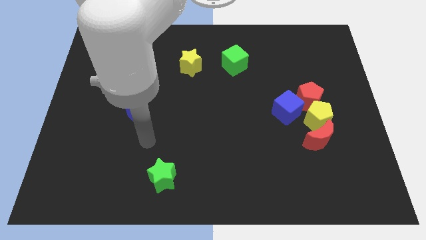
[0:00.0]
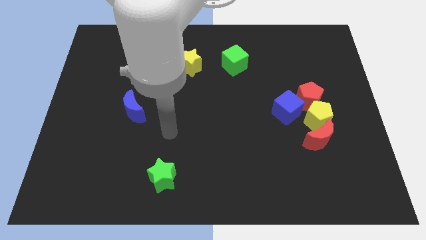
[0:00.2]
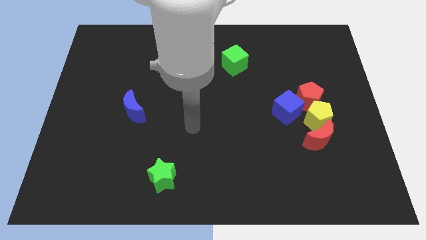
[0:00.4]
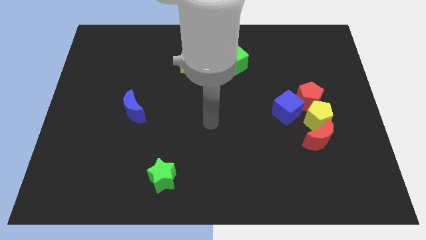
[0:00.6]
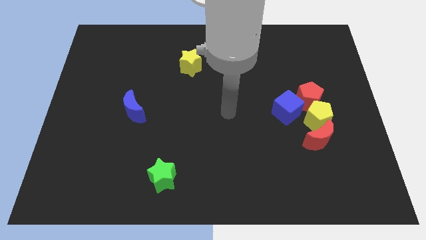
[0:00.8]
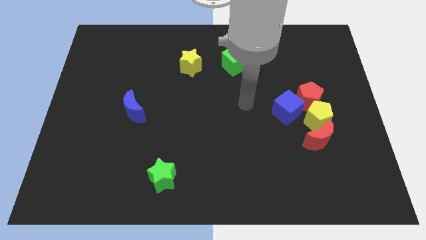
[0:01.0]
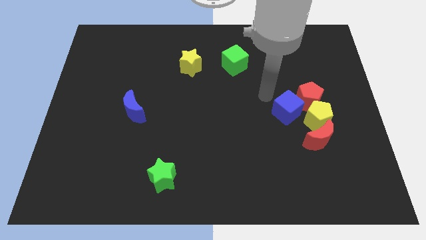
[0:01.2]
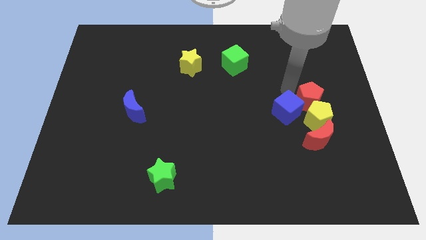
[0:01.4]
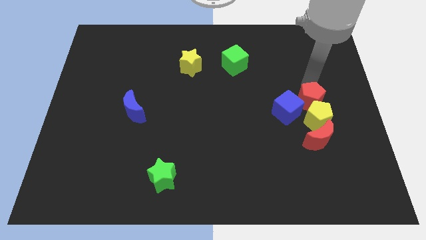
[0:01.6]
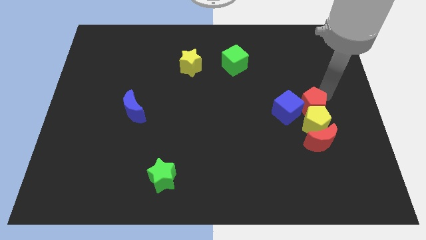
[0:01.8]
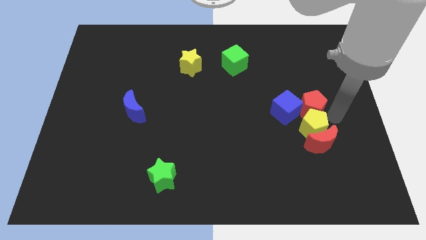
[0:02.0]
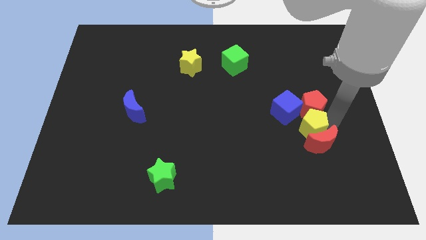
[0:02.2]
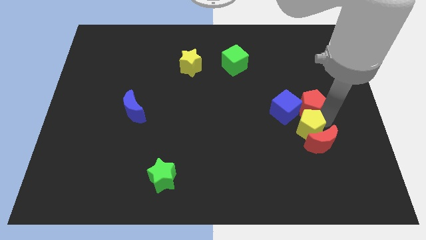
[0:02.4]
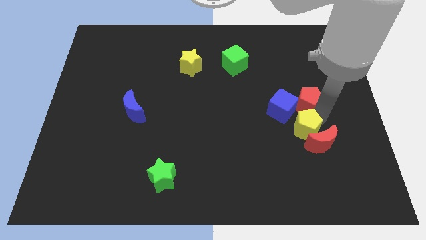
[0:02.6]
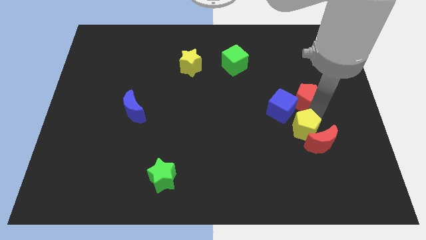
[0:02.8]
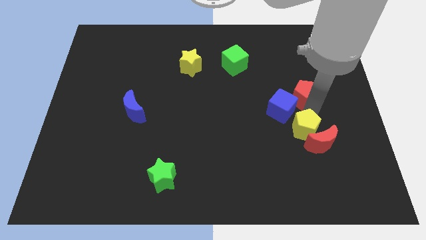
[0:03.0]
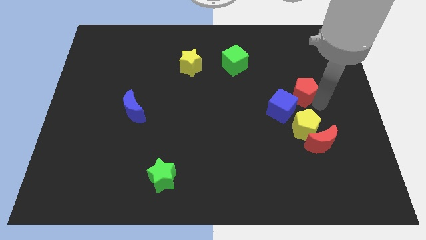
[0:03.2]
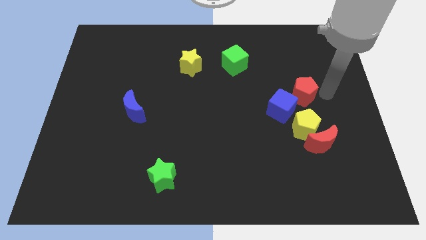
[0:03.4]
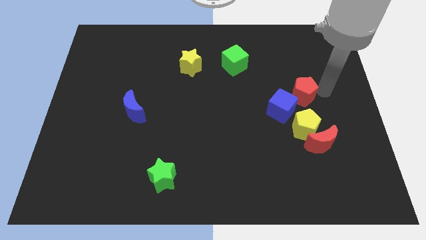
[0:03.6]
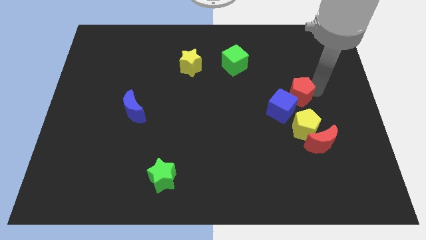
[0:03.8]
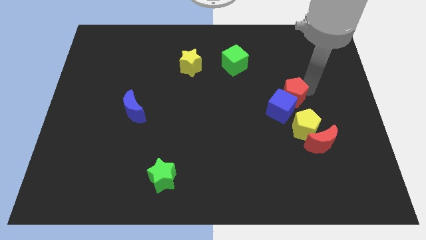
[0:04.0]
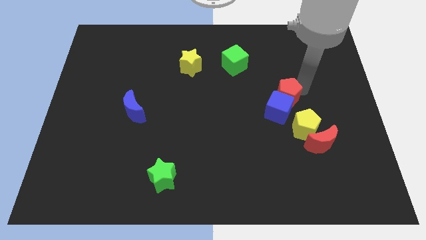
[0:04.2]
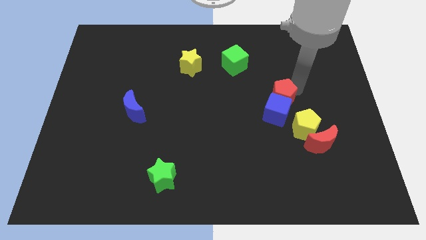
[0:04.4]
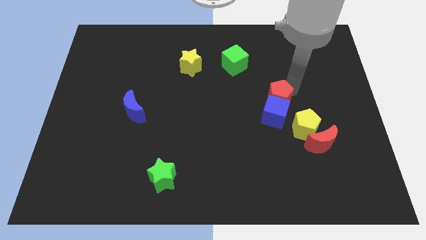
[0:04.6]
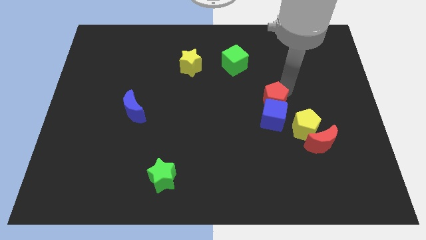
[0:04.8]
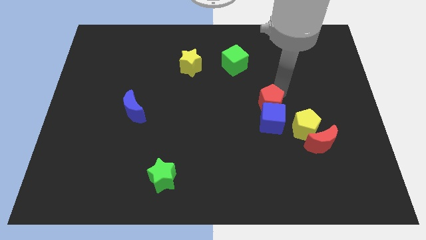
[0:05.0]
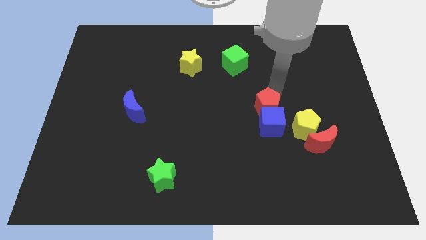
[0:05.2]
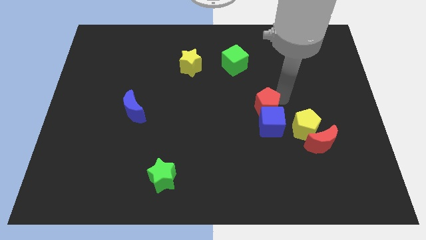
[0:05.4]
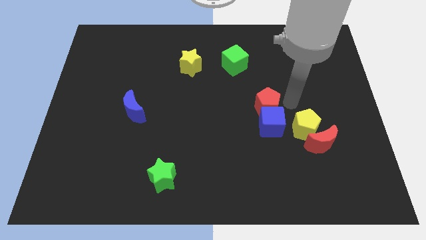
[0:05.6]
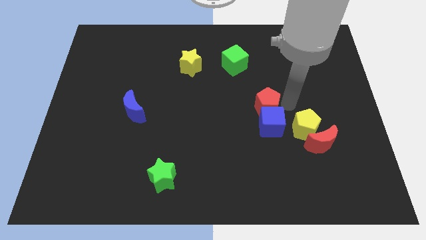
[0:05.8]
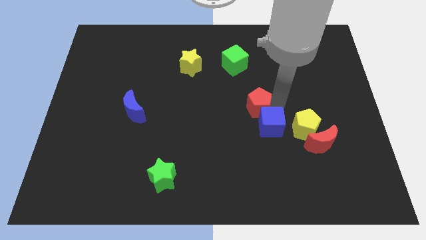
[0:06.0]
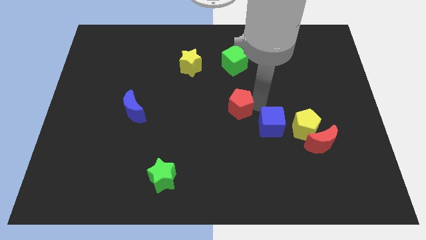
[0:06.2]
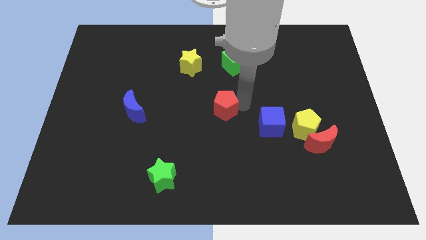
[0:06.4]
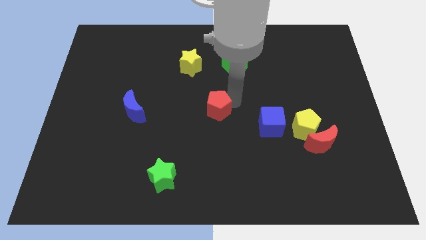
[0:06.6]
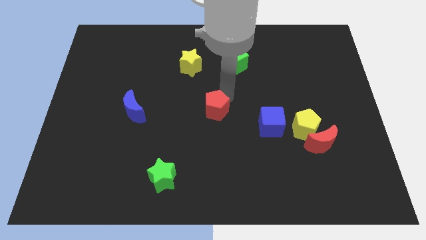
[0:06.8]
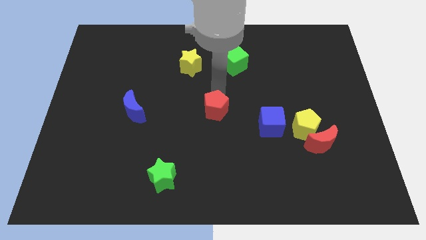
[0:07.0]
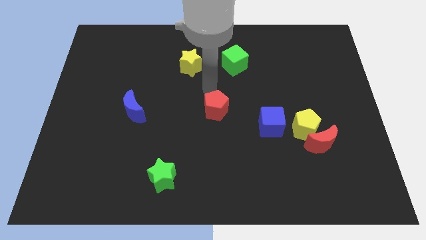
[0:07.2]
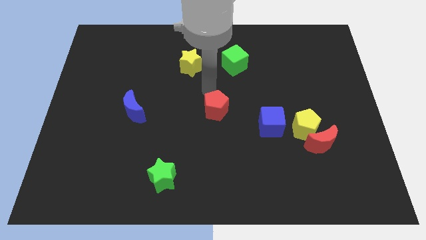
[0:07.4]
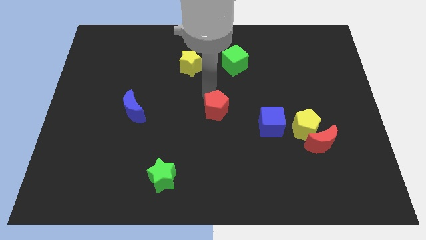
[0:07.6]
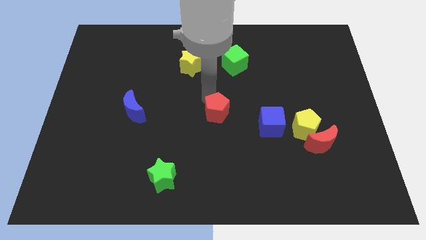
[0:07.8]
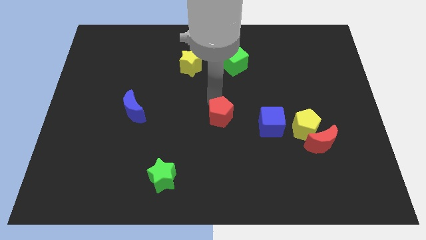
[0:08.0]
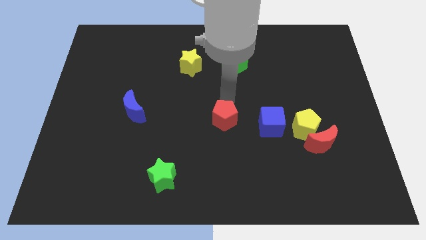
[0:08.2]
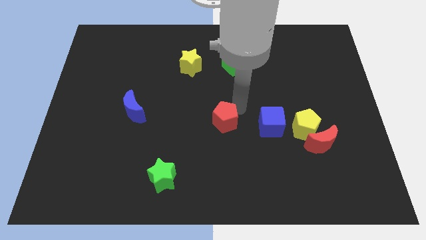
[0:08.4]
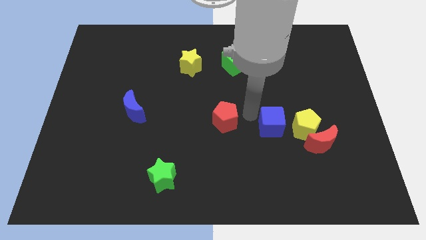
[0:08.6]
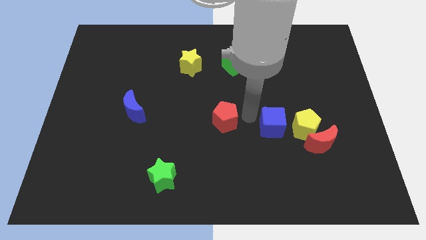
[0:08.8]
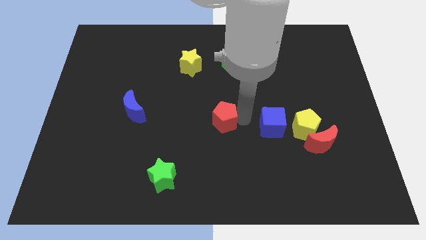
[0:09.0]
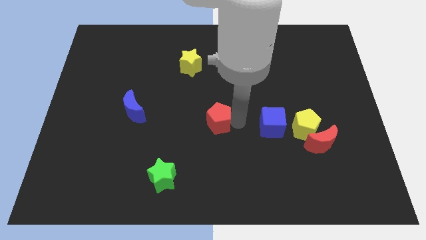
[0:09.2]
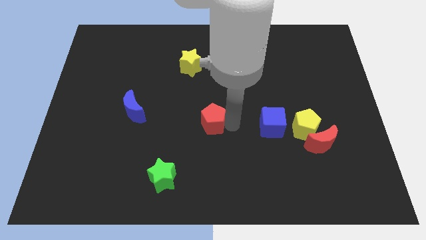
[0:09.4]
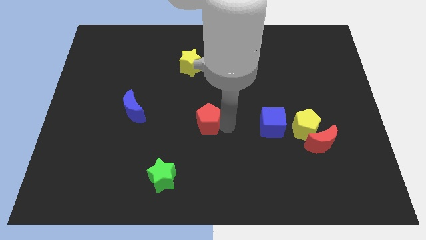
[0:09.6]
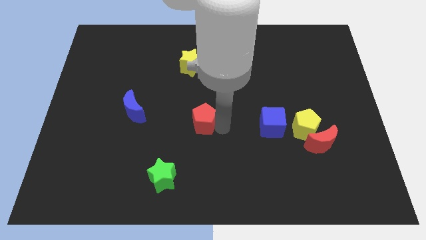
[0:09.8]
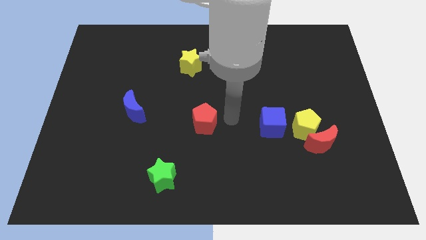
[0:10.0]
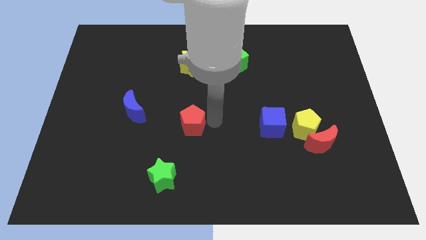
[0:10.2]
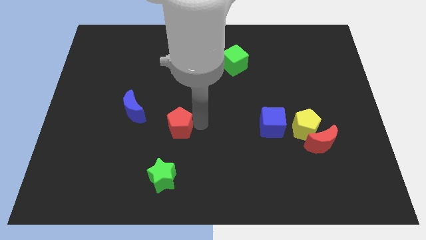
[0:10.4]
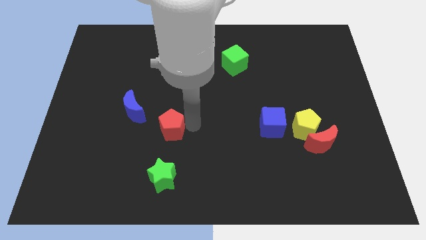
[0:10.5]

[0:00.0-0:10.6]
put the red pentagon diagonally down and to the right of the blue moon

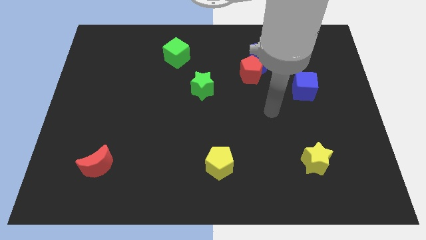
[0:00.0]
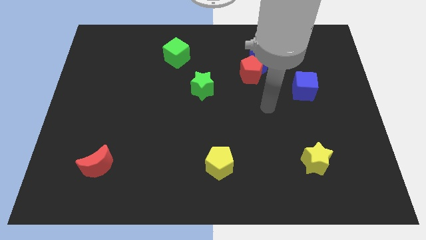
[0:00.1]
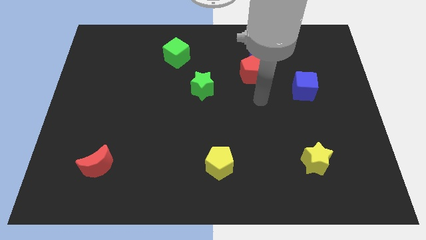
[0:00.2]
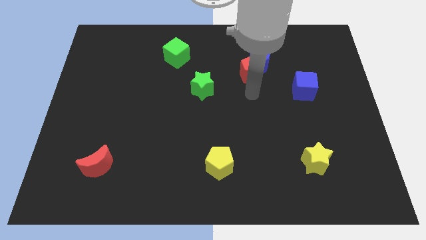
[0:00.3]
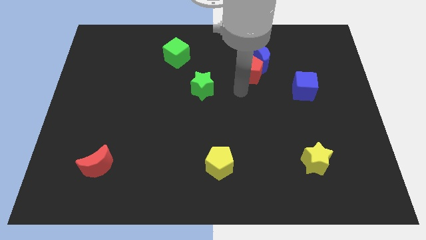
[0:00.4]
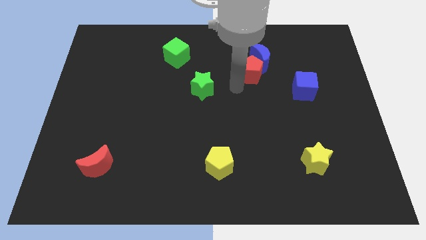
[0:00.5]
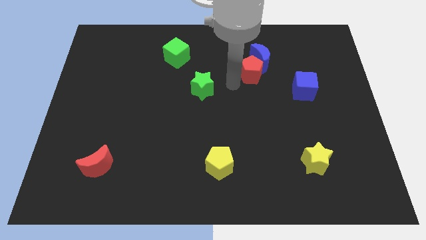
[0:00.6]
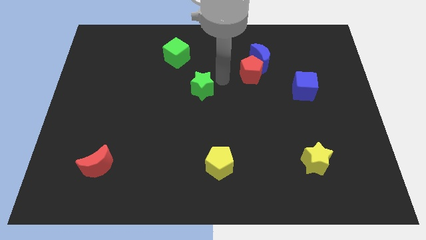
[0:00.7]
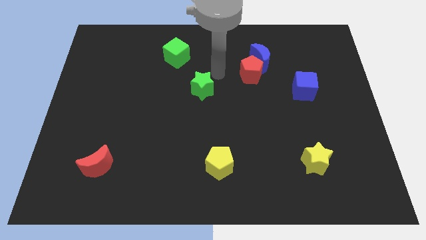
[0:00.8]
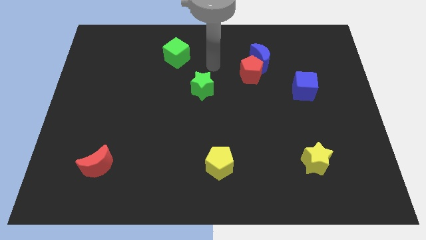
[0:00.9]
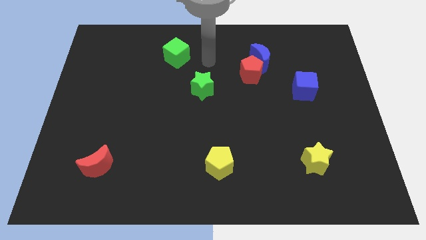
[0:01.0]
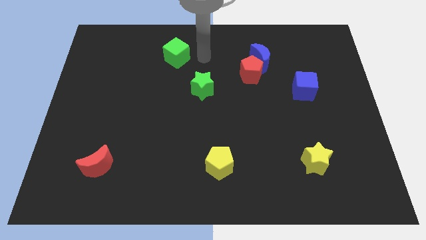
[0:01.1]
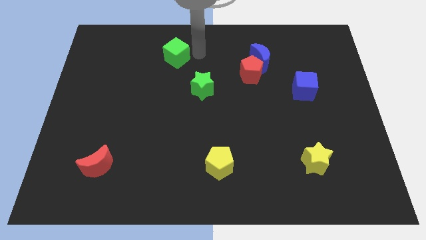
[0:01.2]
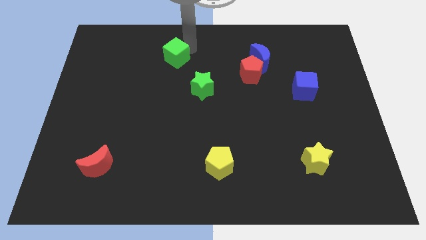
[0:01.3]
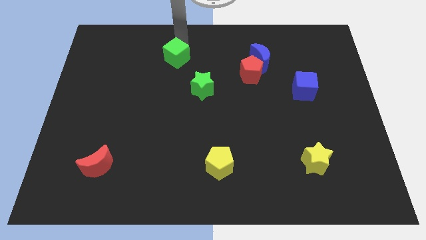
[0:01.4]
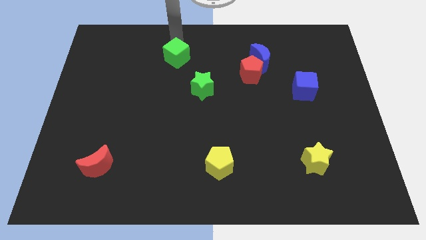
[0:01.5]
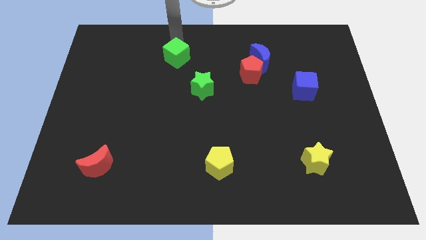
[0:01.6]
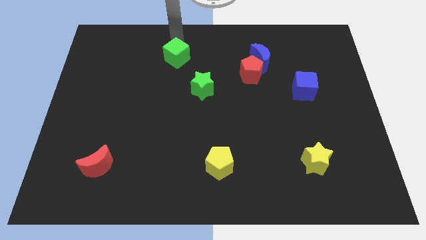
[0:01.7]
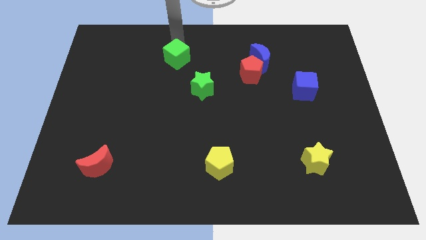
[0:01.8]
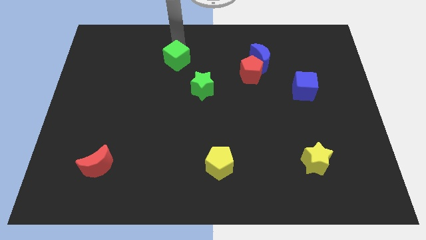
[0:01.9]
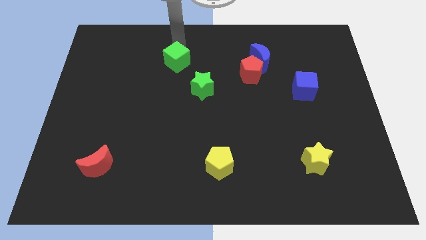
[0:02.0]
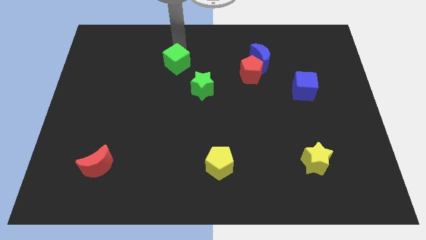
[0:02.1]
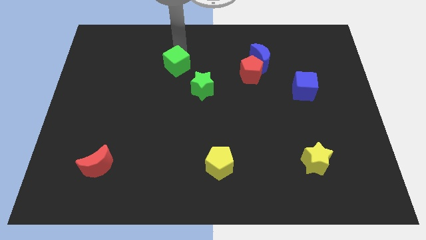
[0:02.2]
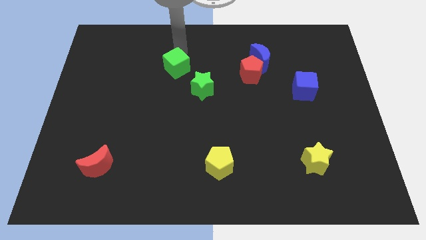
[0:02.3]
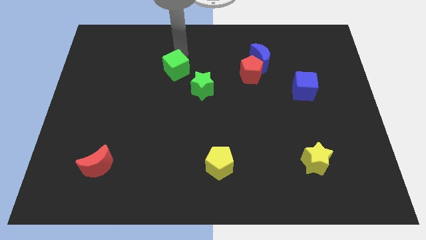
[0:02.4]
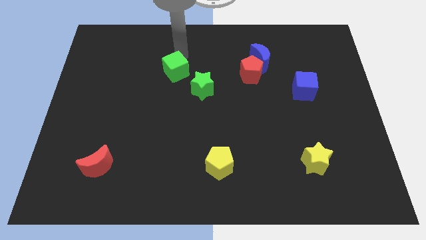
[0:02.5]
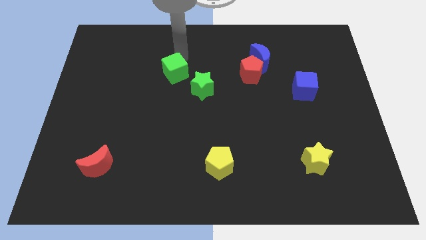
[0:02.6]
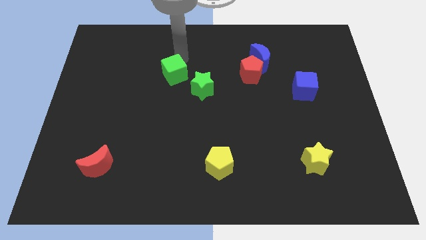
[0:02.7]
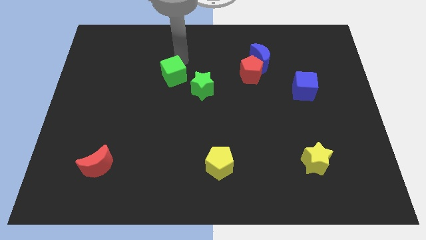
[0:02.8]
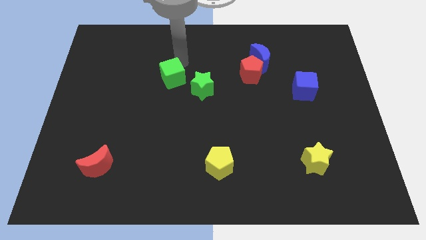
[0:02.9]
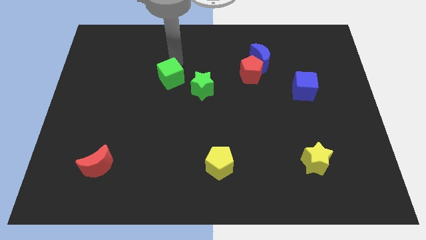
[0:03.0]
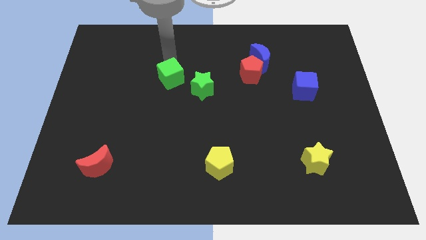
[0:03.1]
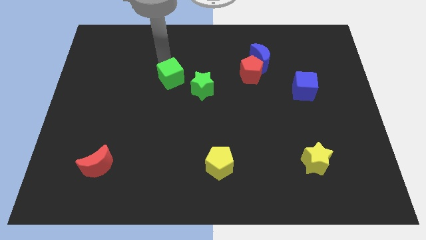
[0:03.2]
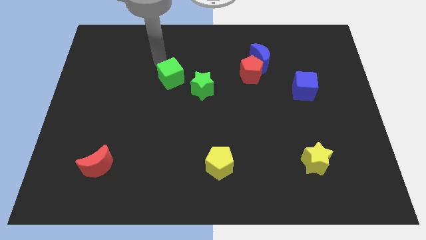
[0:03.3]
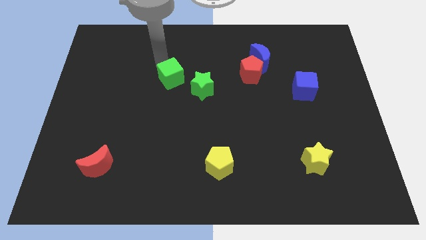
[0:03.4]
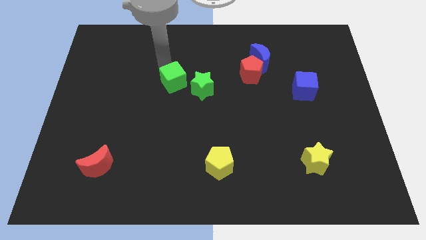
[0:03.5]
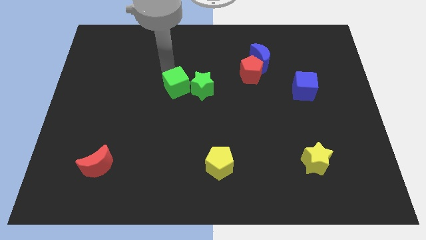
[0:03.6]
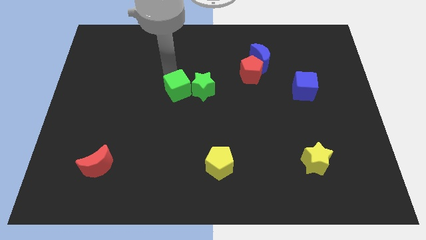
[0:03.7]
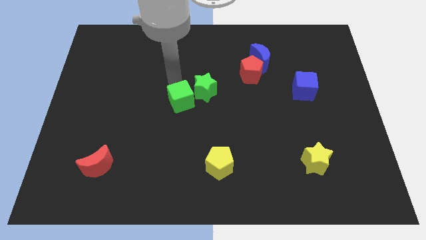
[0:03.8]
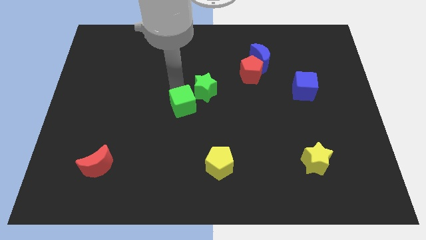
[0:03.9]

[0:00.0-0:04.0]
put the green cube to the bottom side of the green star
